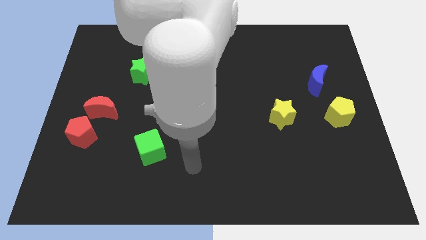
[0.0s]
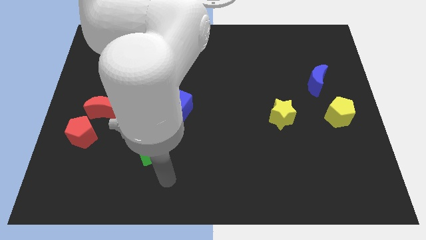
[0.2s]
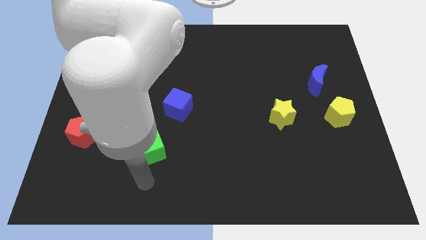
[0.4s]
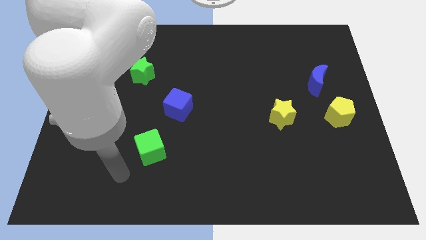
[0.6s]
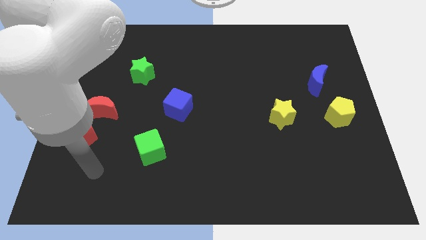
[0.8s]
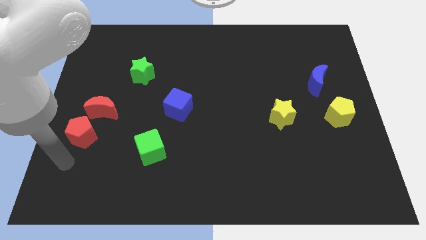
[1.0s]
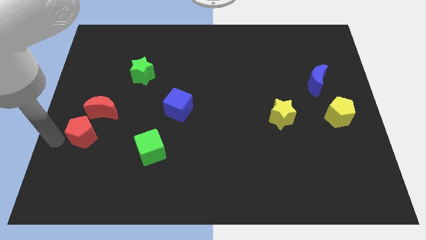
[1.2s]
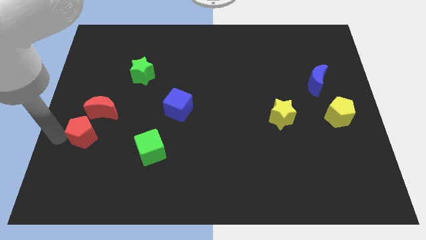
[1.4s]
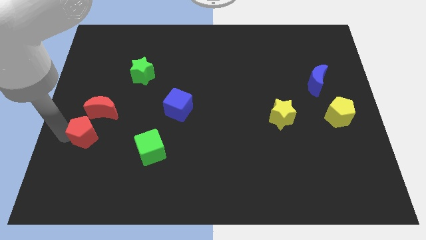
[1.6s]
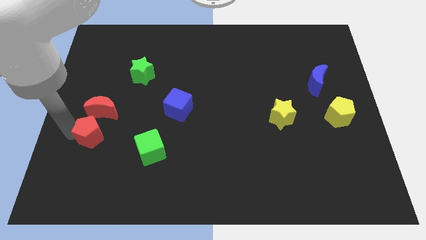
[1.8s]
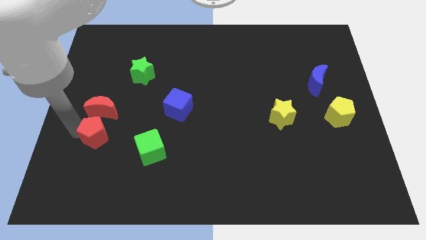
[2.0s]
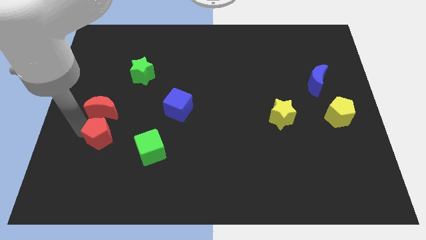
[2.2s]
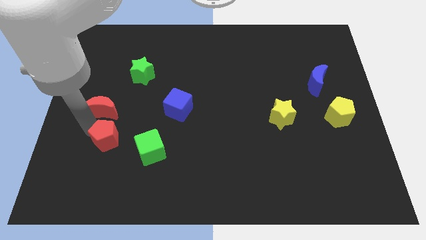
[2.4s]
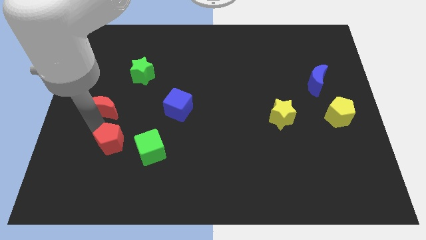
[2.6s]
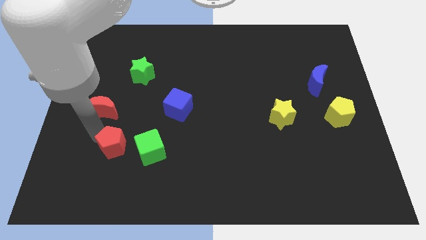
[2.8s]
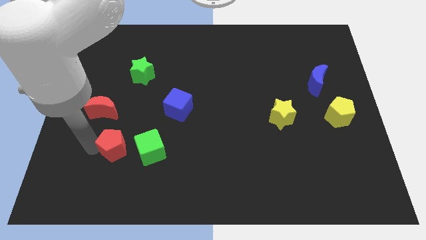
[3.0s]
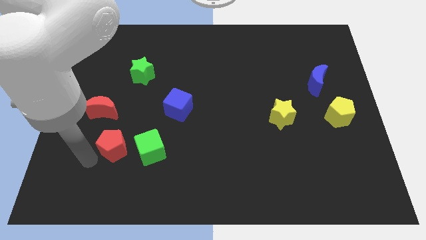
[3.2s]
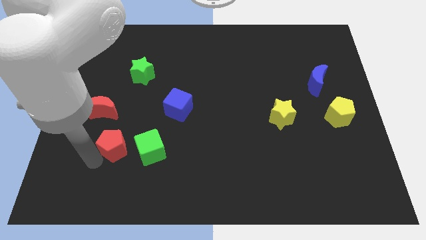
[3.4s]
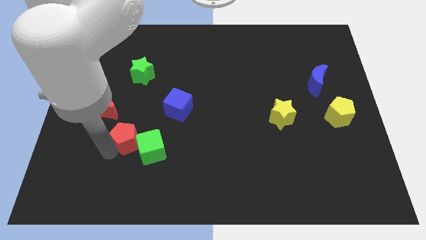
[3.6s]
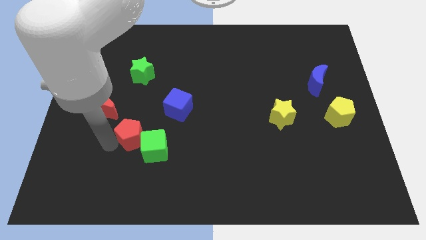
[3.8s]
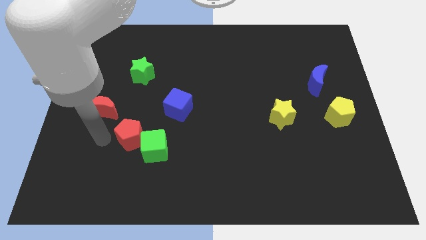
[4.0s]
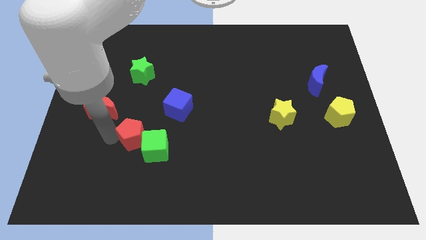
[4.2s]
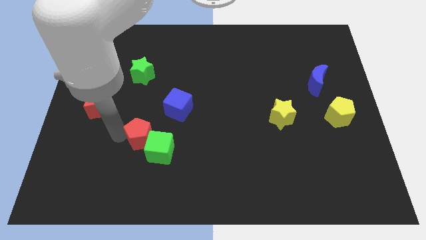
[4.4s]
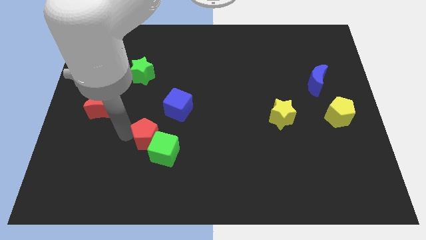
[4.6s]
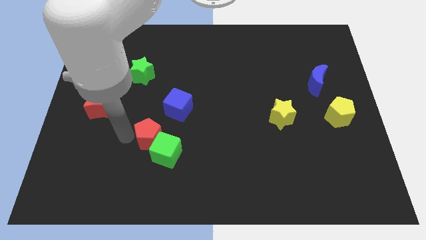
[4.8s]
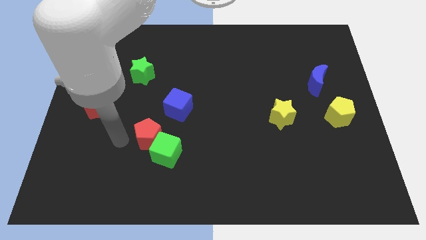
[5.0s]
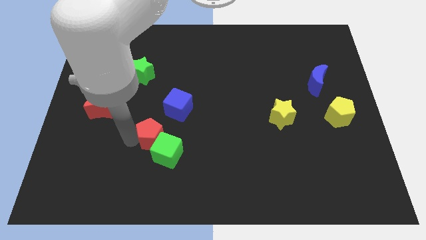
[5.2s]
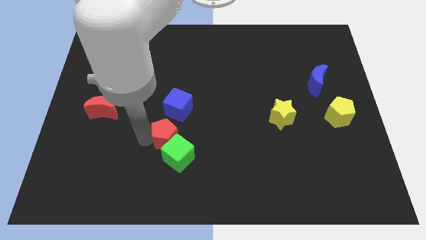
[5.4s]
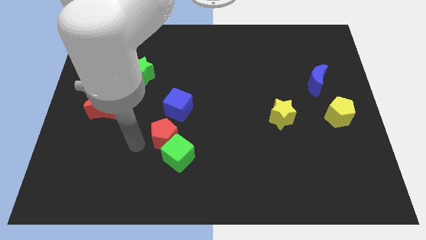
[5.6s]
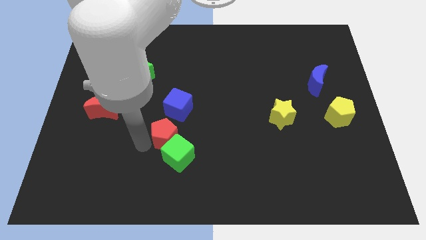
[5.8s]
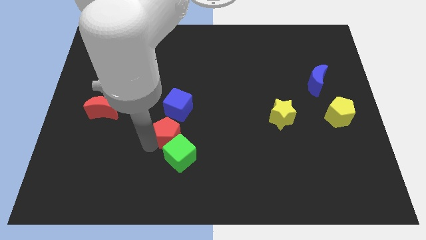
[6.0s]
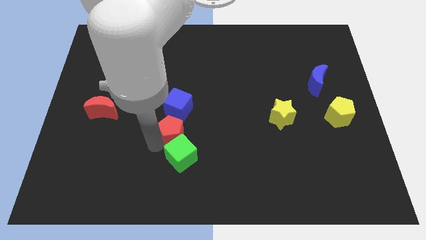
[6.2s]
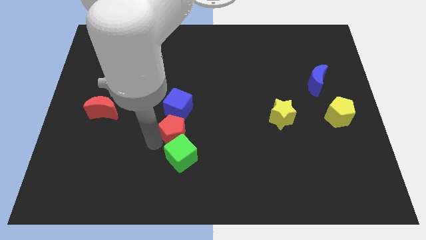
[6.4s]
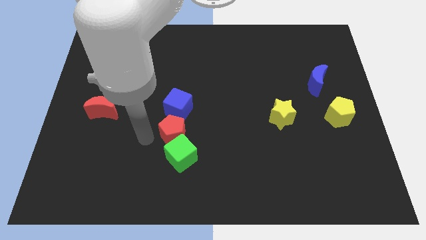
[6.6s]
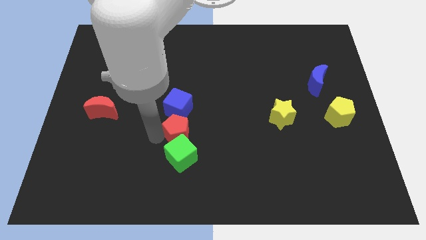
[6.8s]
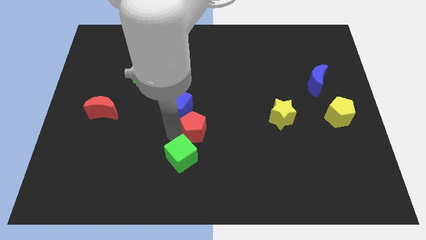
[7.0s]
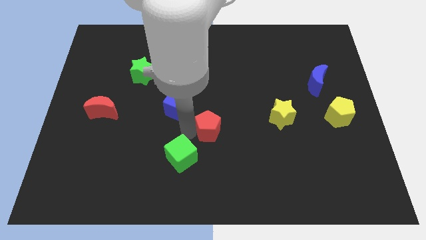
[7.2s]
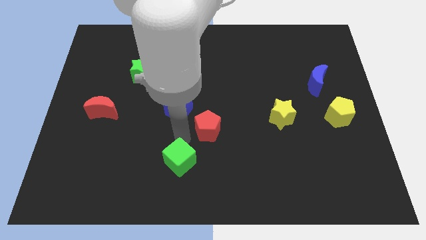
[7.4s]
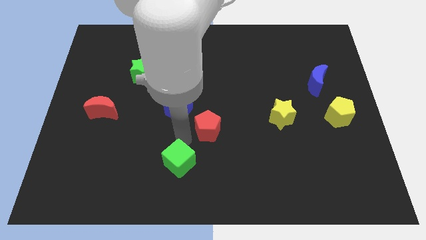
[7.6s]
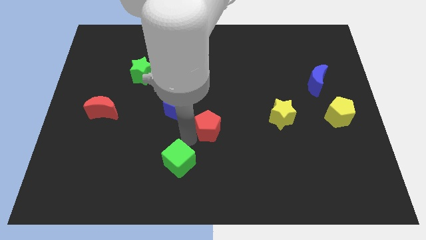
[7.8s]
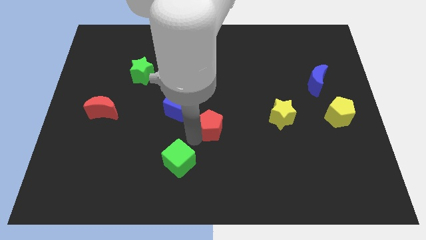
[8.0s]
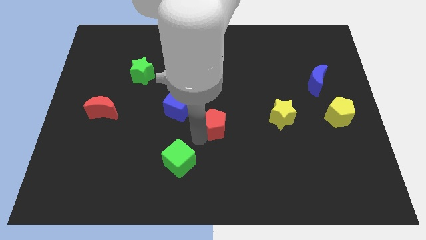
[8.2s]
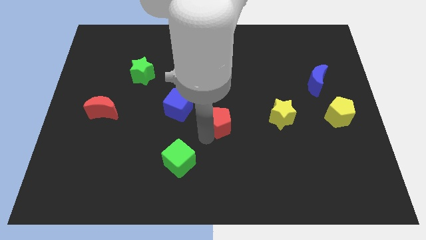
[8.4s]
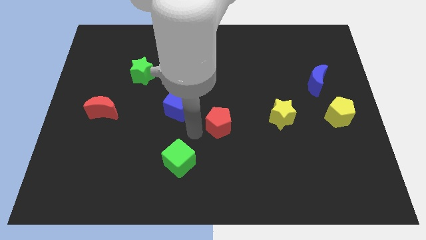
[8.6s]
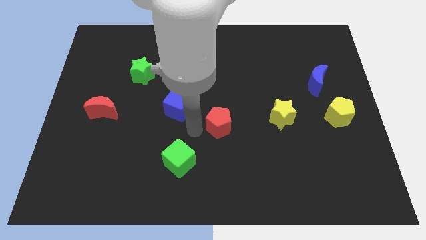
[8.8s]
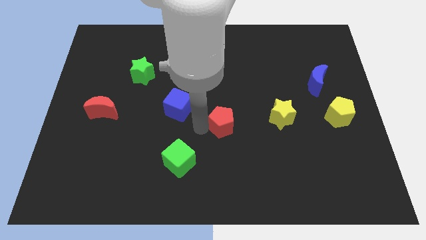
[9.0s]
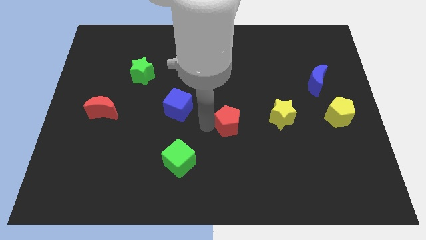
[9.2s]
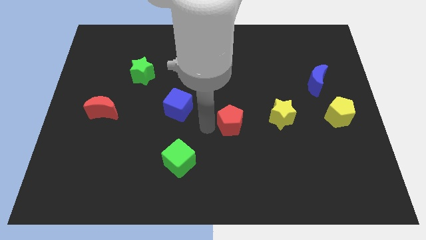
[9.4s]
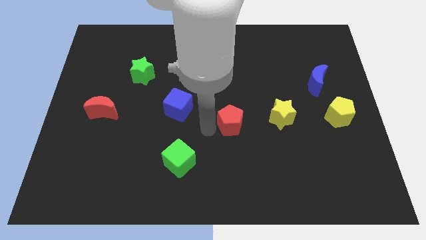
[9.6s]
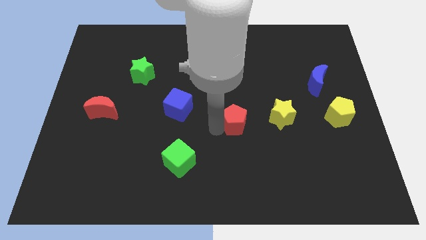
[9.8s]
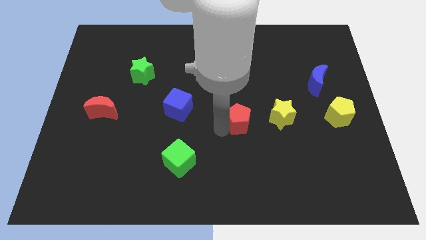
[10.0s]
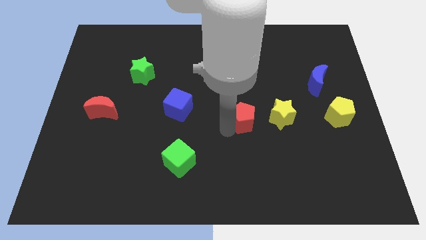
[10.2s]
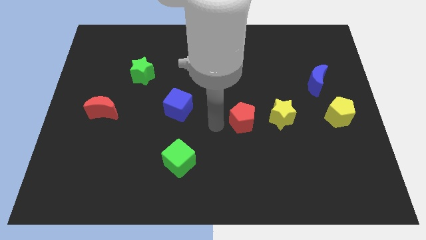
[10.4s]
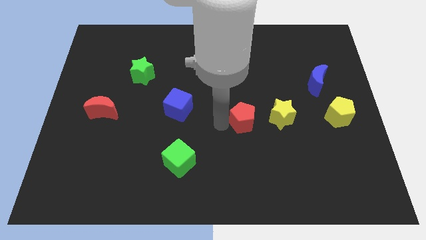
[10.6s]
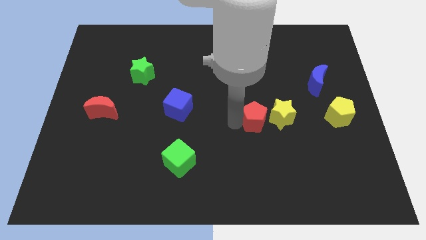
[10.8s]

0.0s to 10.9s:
slide the red pentagon close to the yellow star

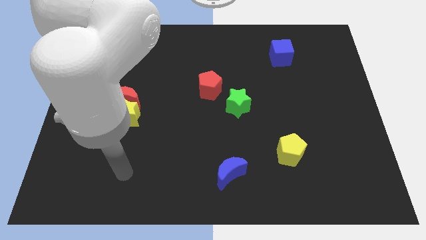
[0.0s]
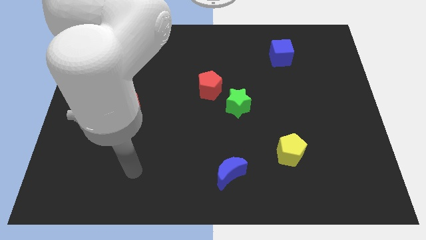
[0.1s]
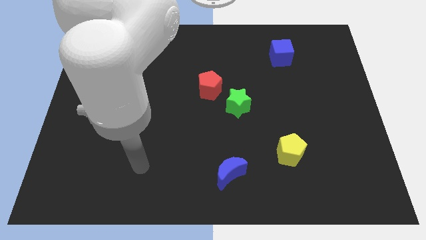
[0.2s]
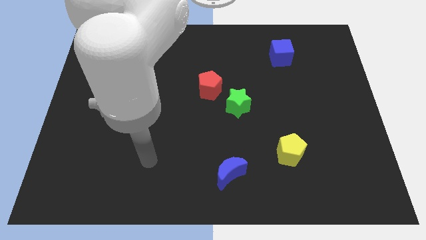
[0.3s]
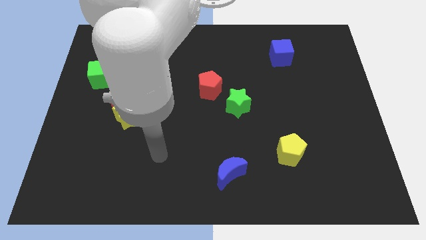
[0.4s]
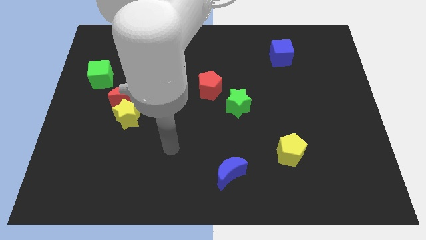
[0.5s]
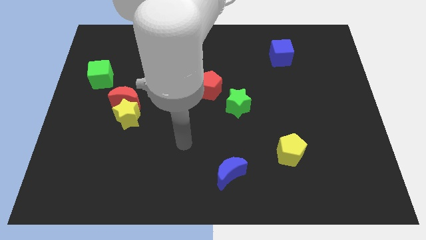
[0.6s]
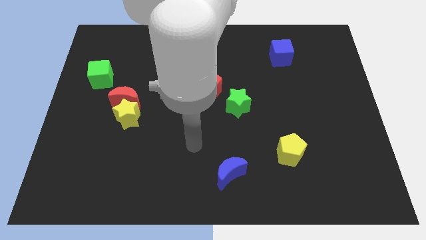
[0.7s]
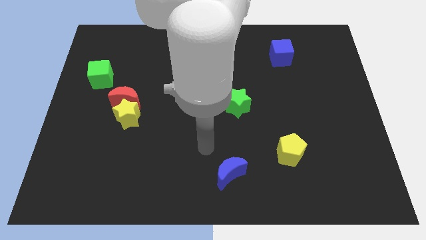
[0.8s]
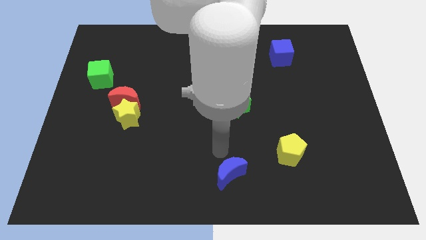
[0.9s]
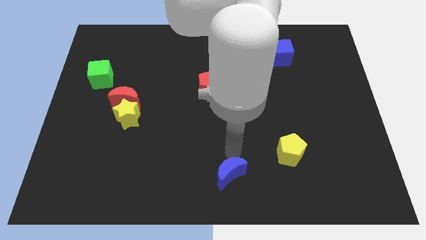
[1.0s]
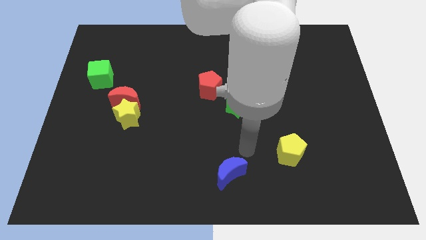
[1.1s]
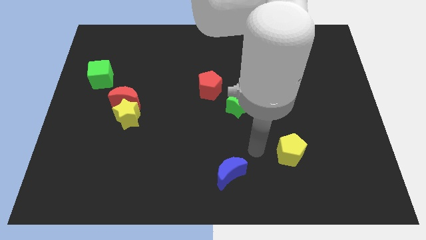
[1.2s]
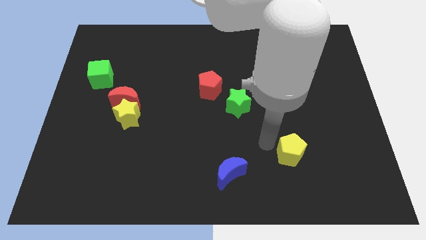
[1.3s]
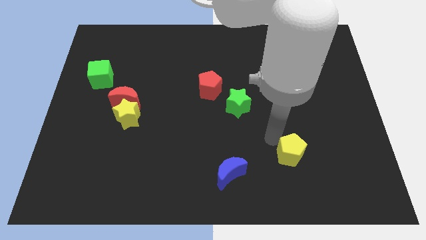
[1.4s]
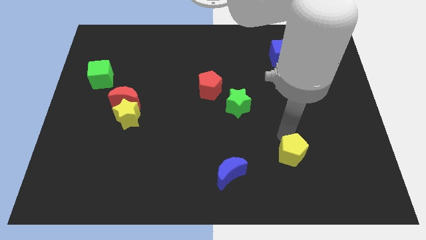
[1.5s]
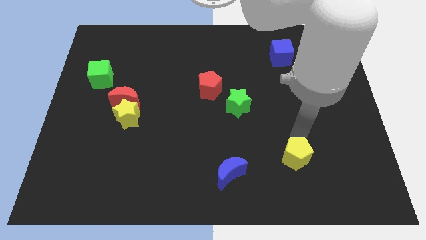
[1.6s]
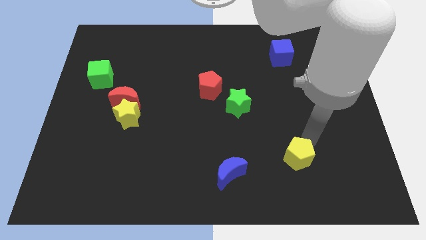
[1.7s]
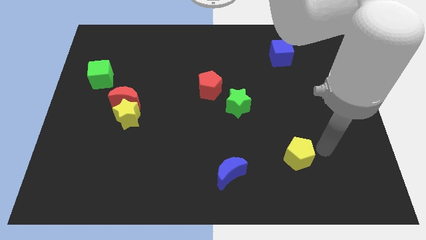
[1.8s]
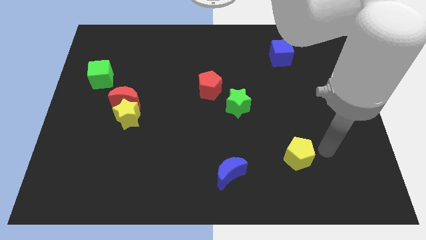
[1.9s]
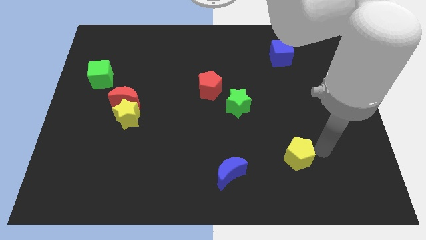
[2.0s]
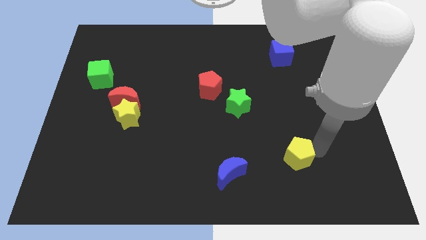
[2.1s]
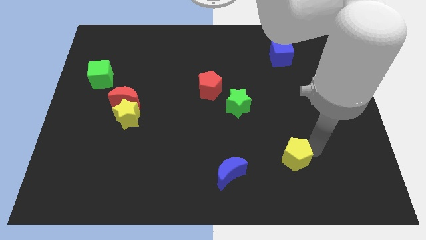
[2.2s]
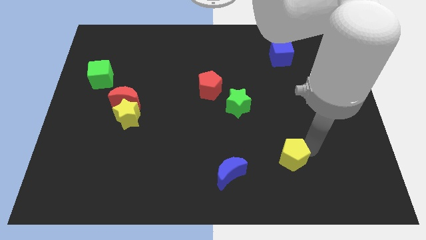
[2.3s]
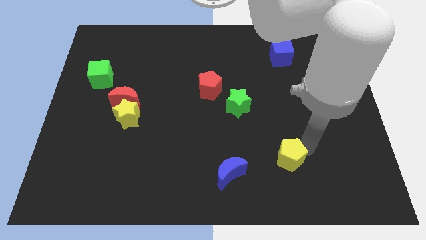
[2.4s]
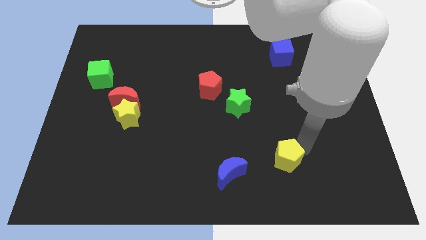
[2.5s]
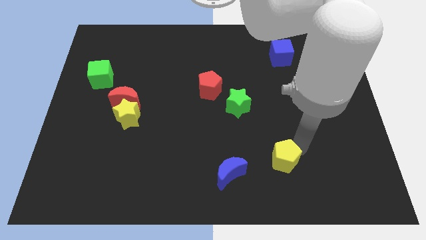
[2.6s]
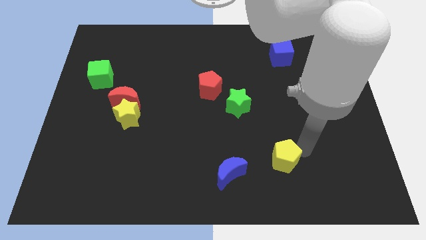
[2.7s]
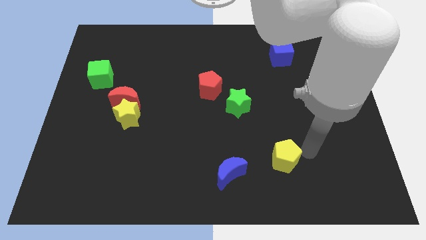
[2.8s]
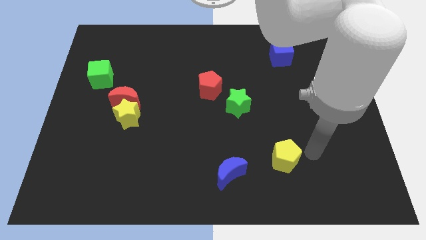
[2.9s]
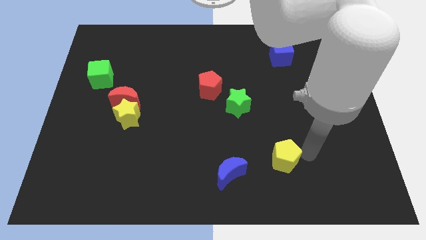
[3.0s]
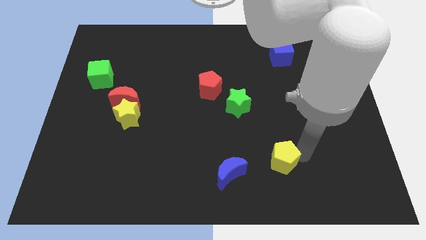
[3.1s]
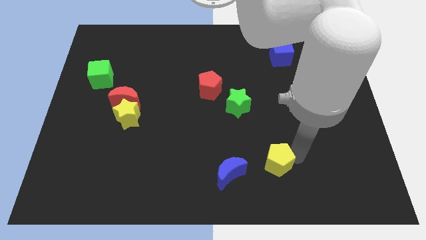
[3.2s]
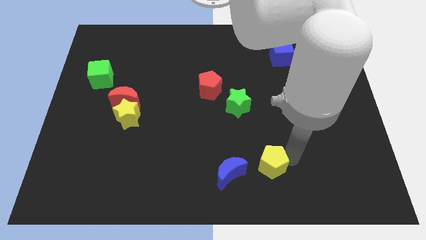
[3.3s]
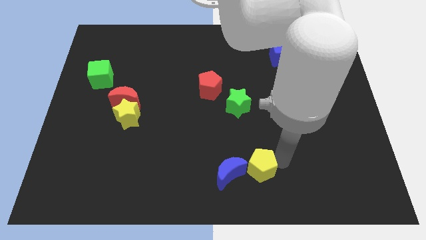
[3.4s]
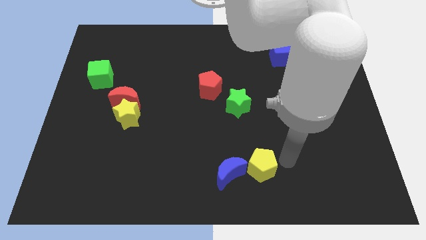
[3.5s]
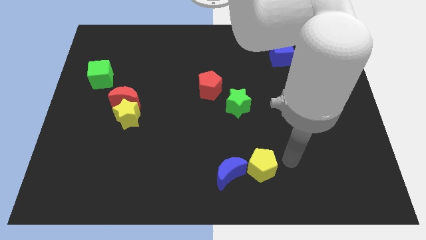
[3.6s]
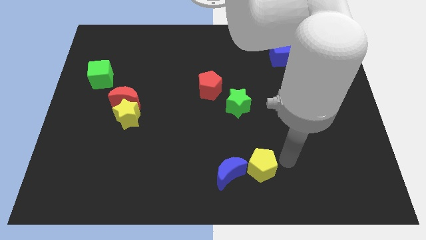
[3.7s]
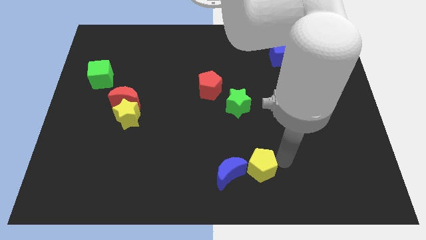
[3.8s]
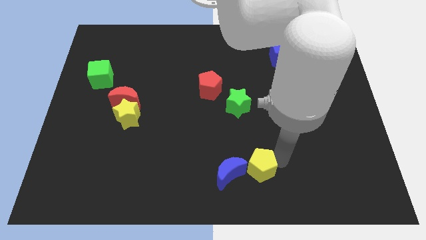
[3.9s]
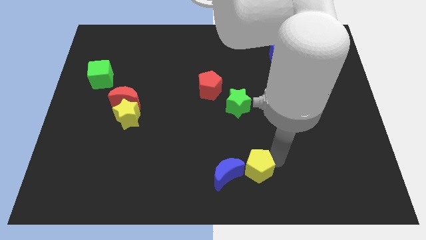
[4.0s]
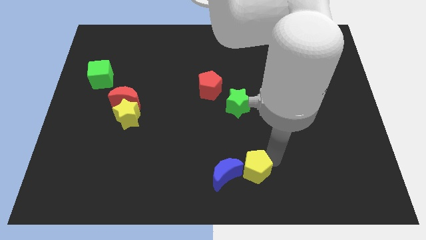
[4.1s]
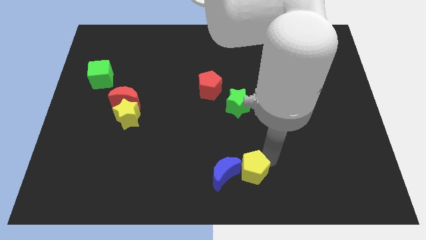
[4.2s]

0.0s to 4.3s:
put the yellow pentagon to the blue moon
